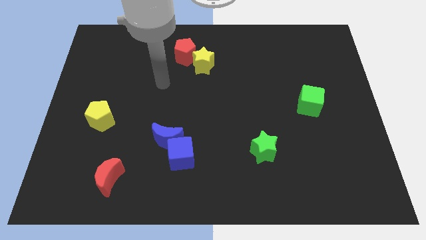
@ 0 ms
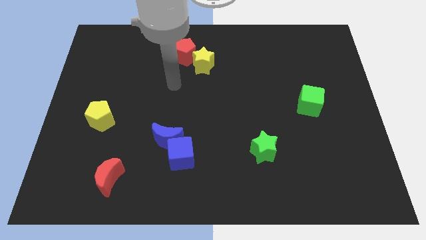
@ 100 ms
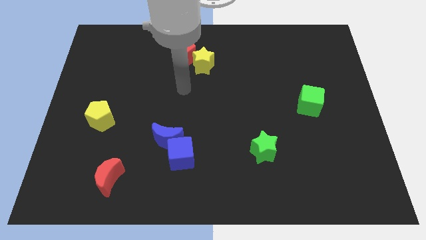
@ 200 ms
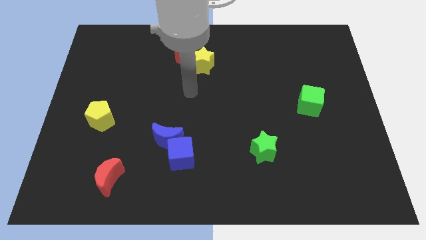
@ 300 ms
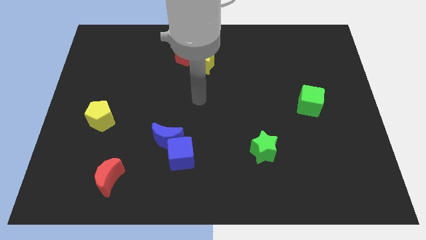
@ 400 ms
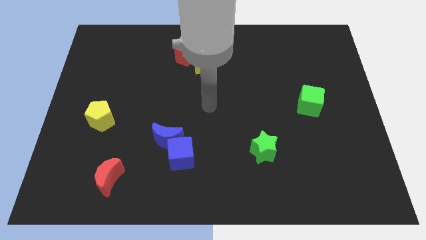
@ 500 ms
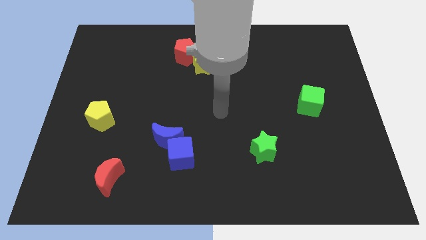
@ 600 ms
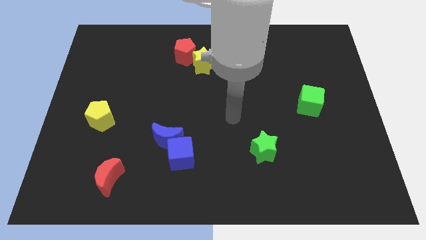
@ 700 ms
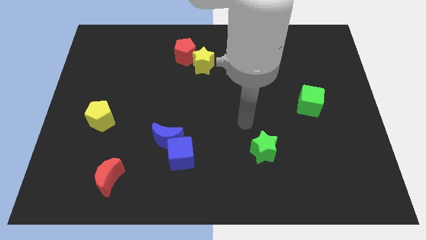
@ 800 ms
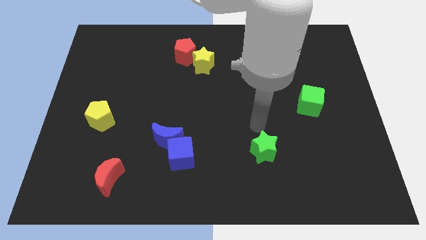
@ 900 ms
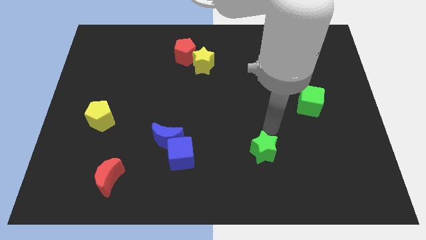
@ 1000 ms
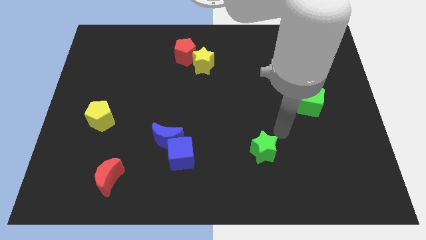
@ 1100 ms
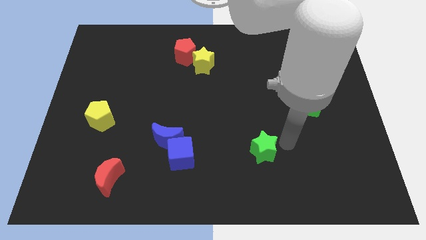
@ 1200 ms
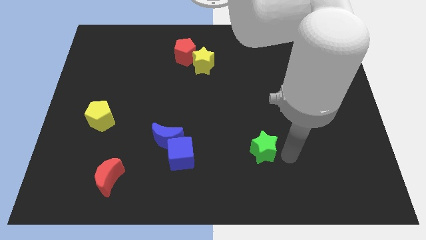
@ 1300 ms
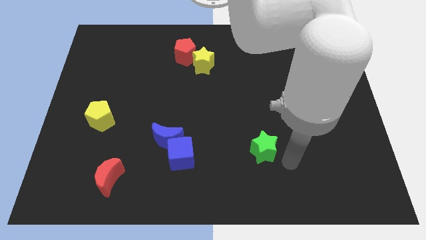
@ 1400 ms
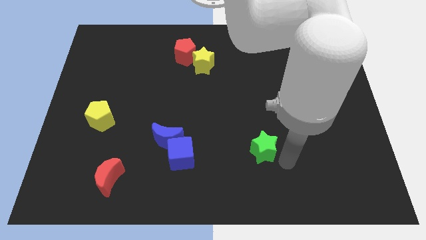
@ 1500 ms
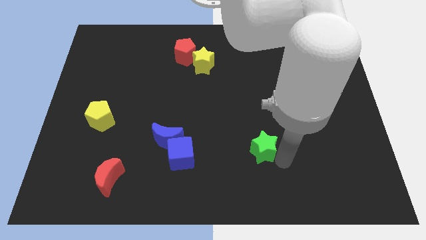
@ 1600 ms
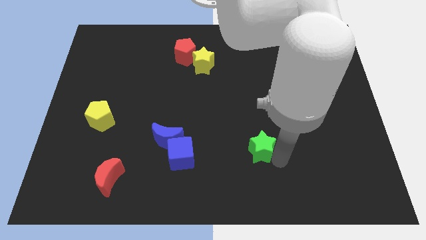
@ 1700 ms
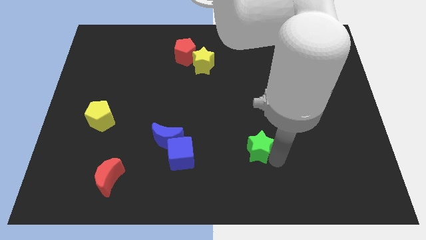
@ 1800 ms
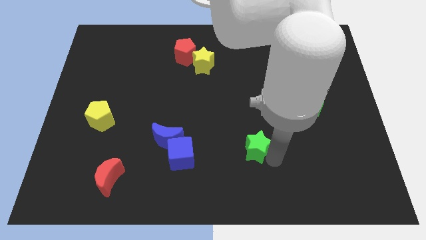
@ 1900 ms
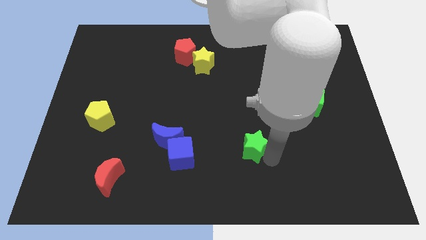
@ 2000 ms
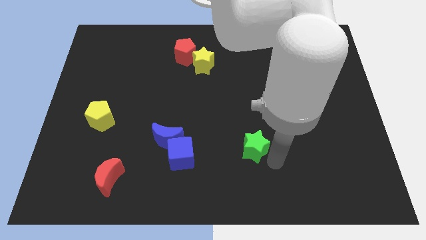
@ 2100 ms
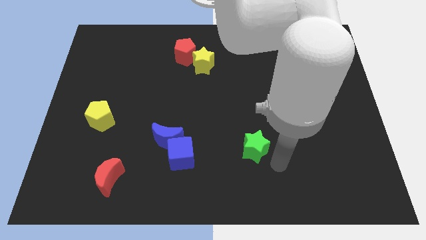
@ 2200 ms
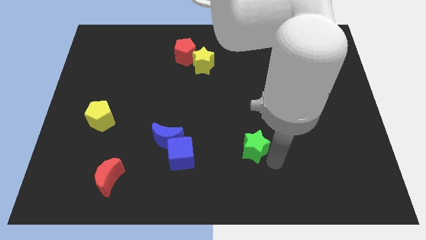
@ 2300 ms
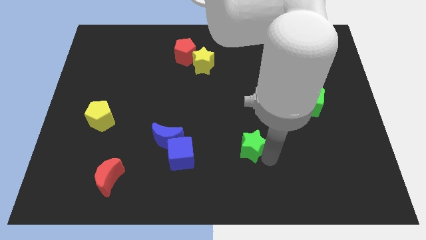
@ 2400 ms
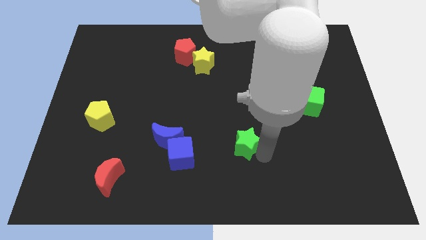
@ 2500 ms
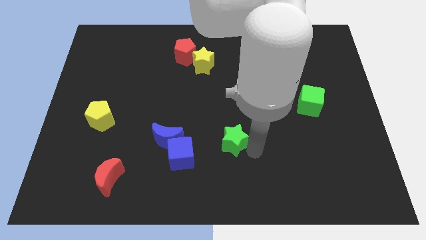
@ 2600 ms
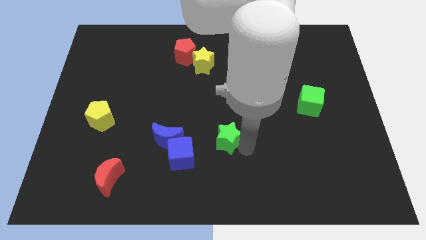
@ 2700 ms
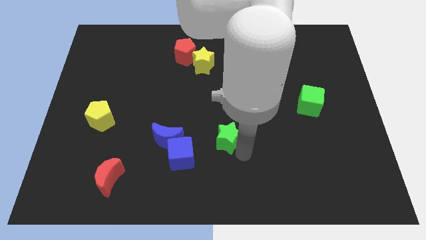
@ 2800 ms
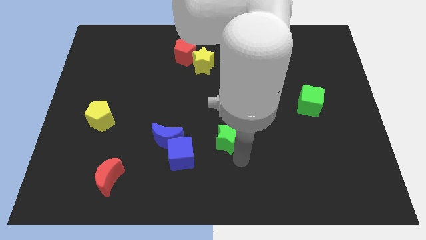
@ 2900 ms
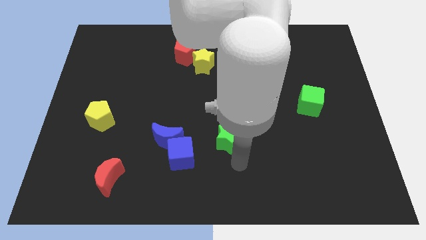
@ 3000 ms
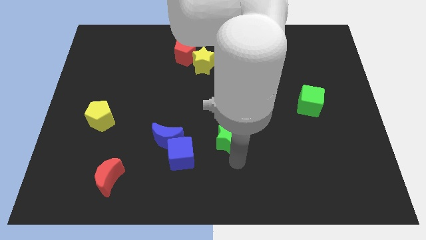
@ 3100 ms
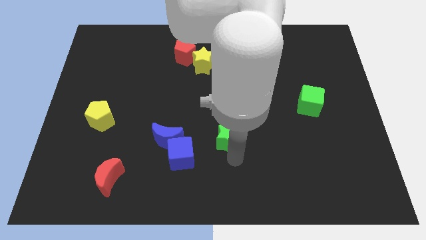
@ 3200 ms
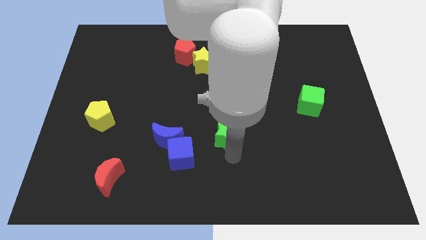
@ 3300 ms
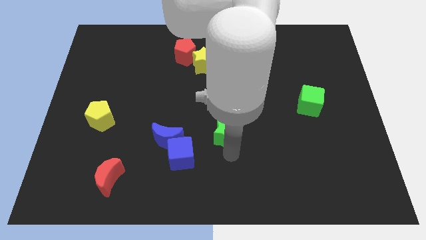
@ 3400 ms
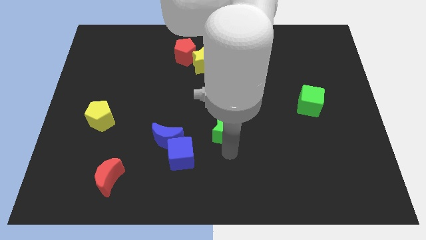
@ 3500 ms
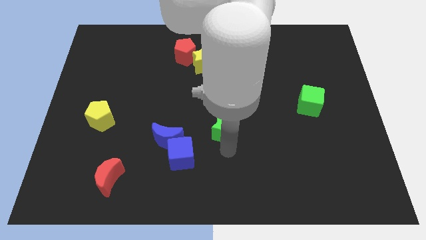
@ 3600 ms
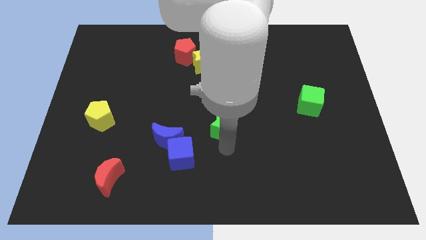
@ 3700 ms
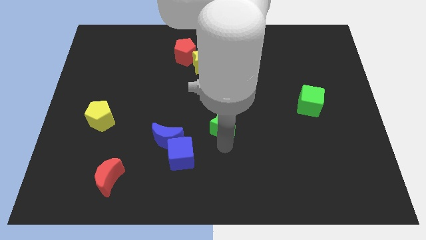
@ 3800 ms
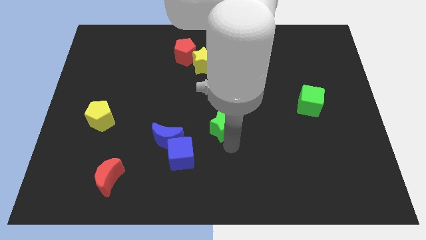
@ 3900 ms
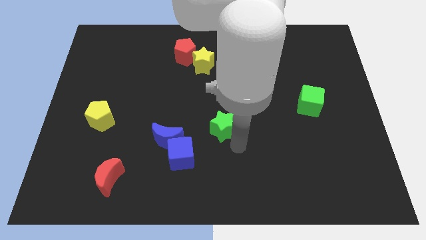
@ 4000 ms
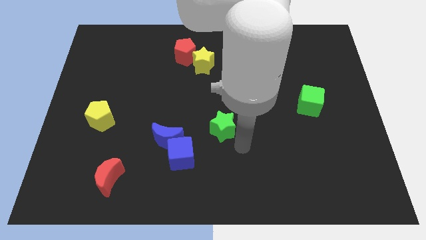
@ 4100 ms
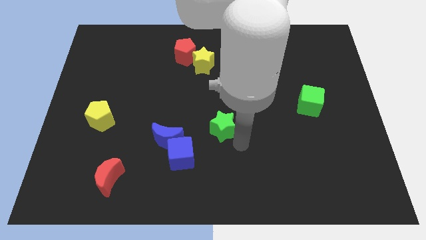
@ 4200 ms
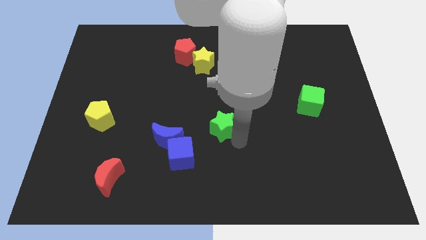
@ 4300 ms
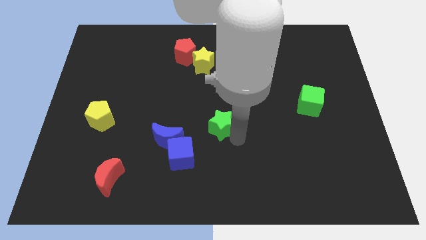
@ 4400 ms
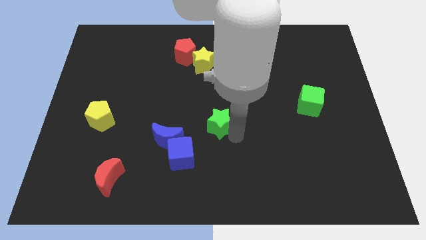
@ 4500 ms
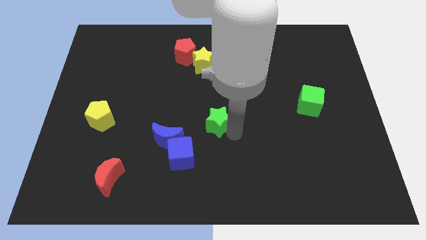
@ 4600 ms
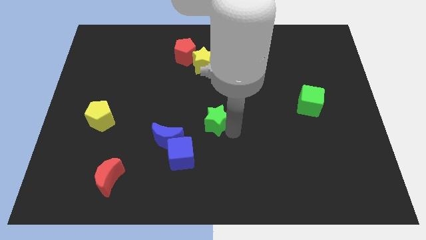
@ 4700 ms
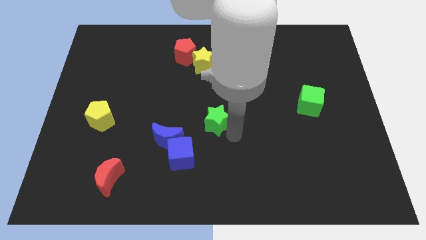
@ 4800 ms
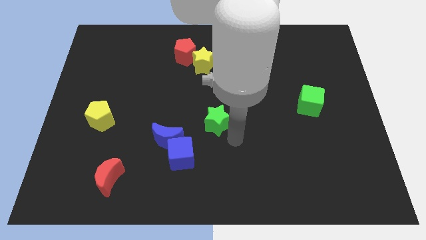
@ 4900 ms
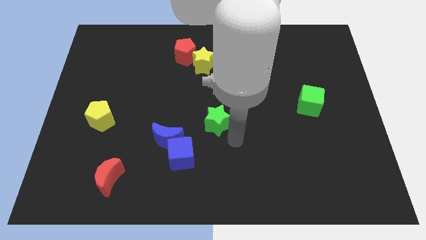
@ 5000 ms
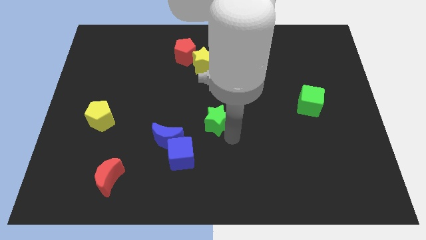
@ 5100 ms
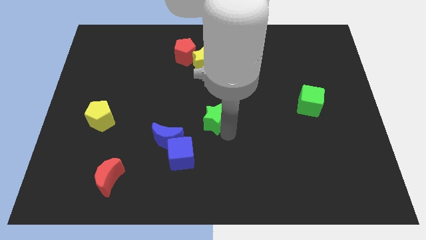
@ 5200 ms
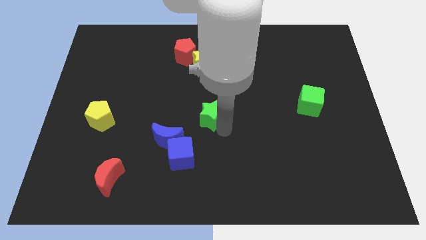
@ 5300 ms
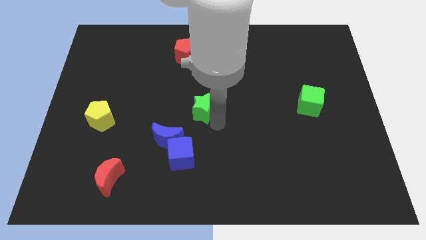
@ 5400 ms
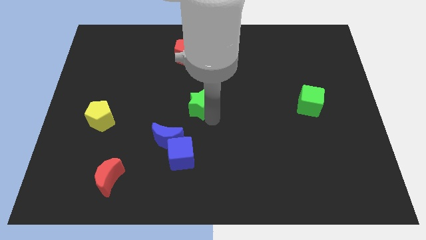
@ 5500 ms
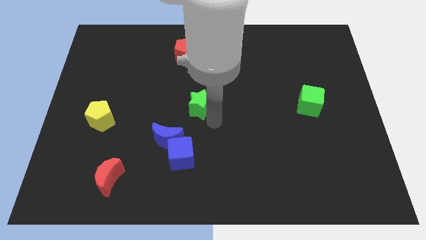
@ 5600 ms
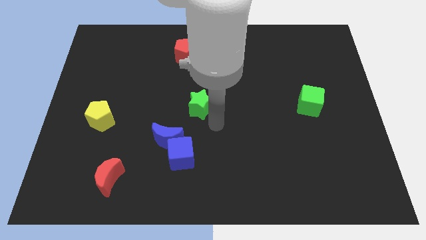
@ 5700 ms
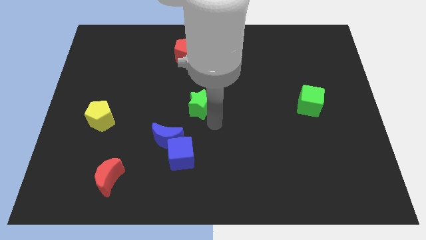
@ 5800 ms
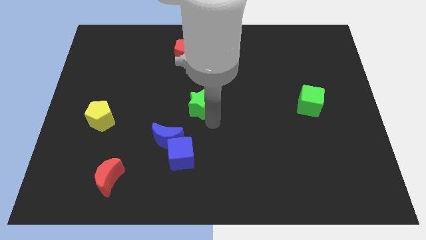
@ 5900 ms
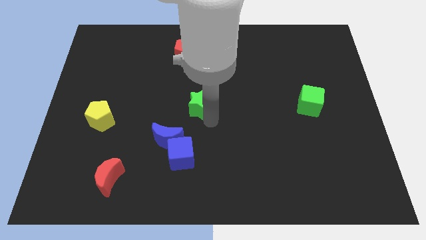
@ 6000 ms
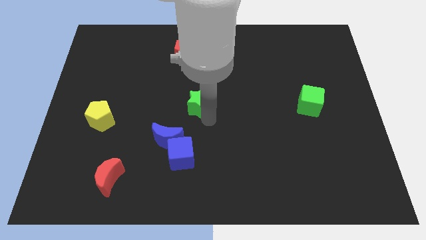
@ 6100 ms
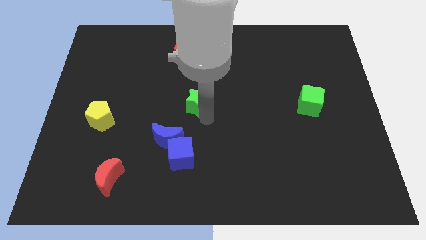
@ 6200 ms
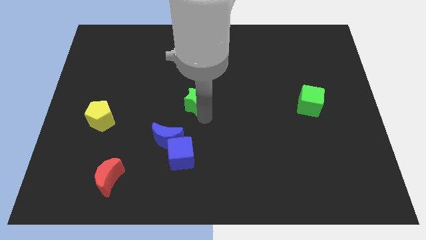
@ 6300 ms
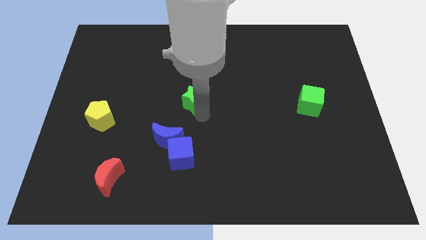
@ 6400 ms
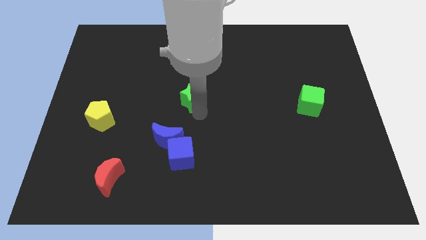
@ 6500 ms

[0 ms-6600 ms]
slide the green star below the red pentagon
